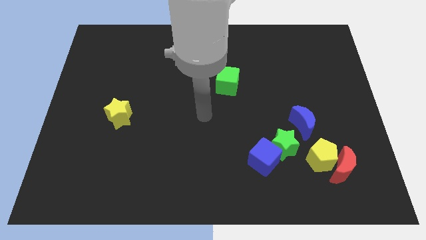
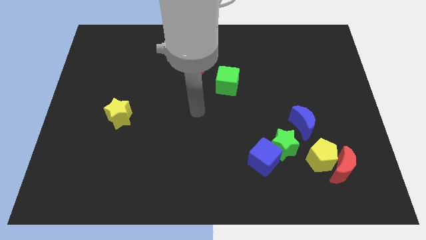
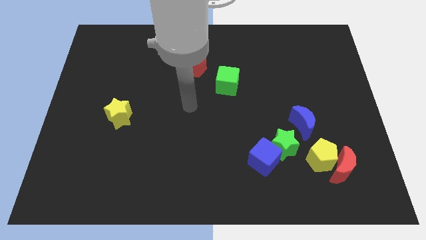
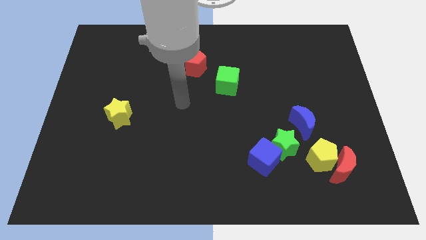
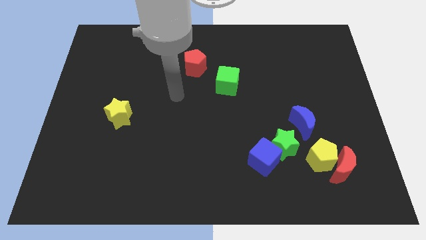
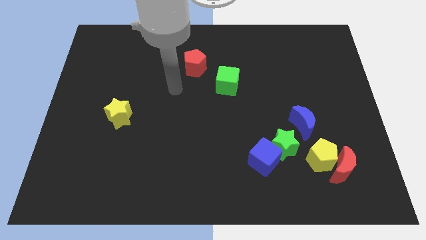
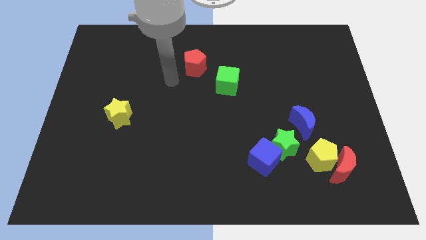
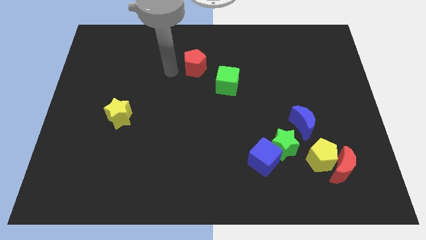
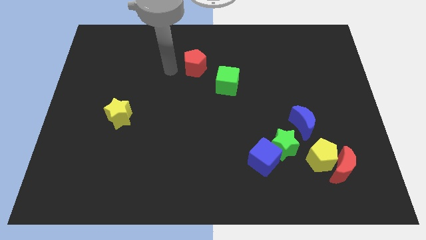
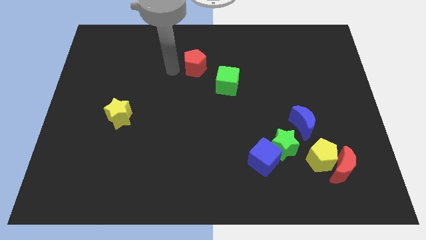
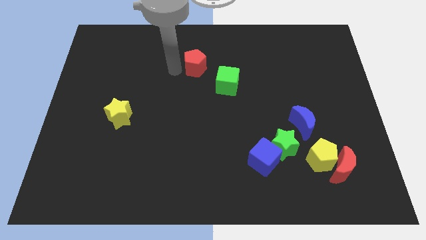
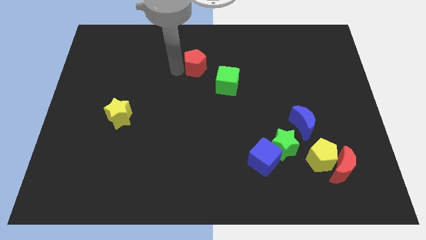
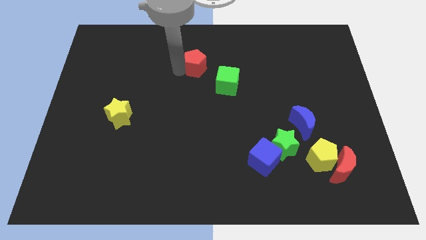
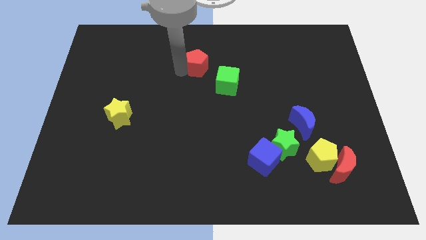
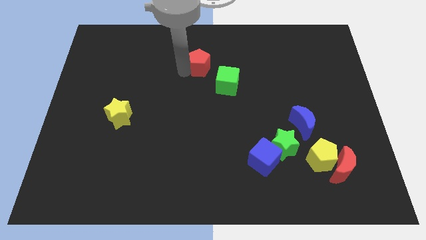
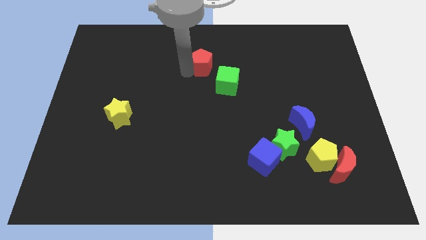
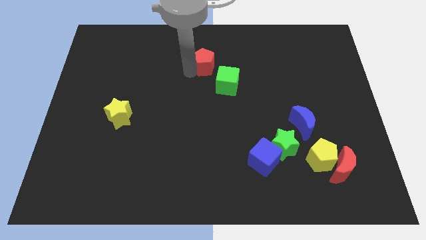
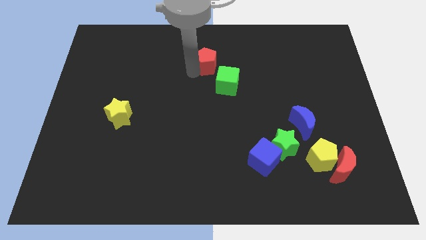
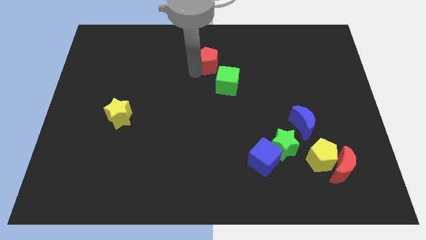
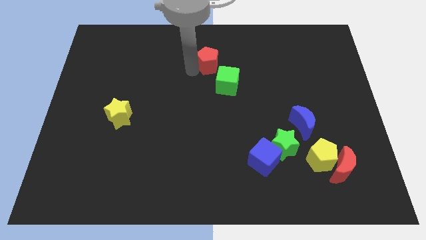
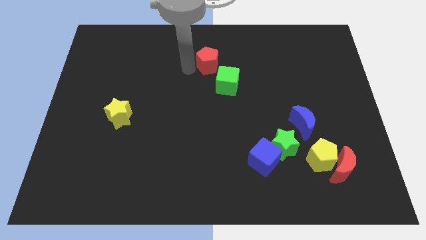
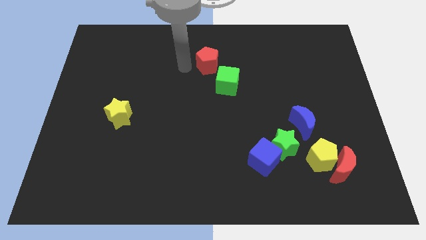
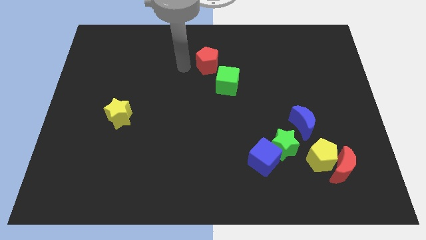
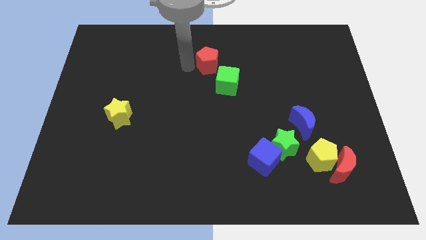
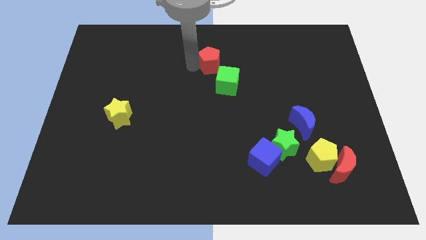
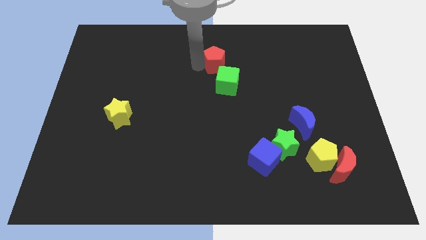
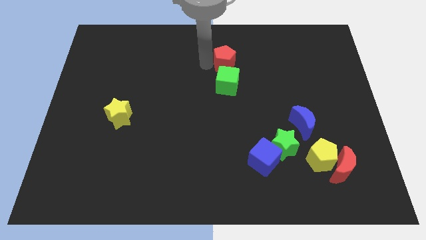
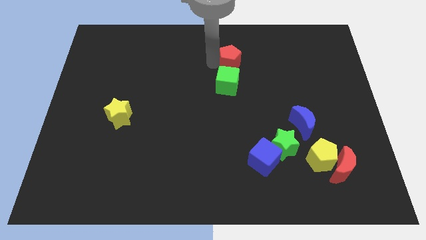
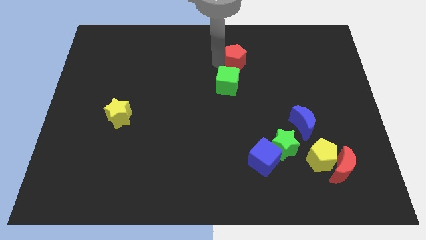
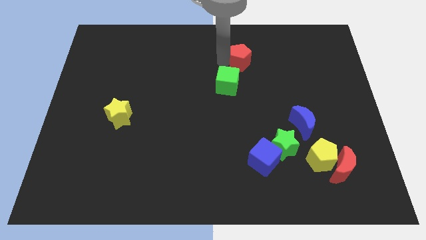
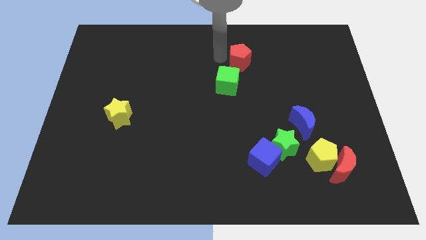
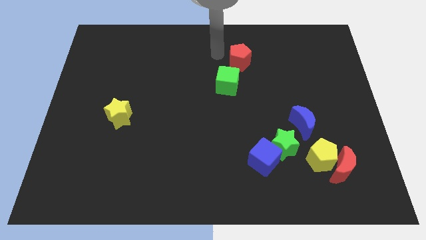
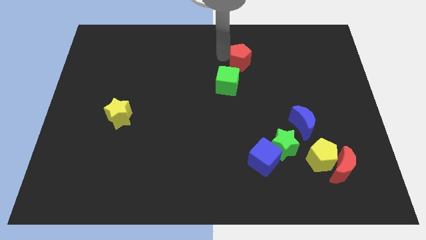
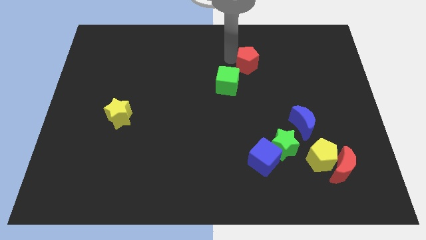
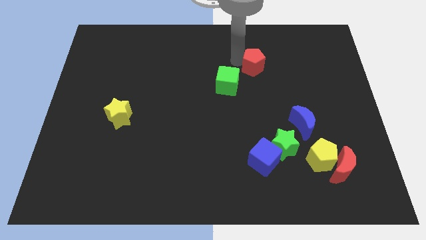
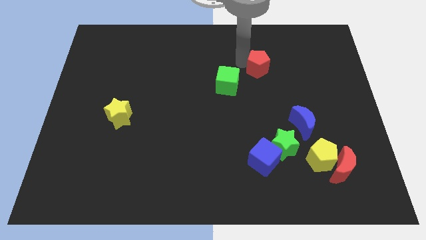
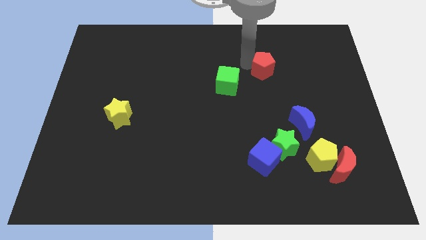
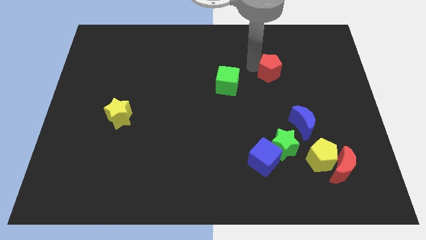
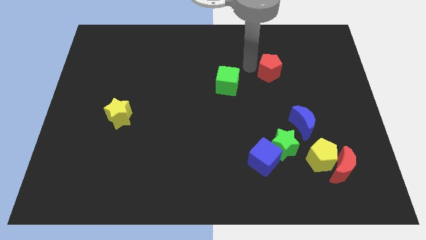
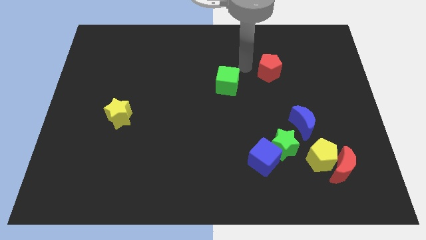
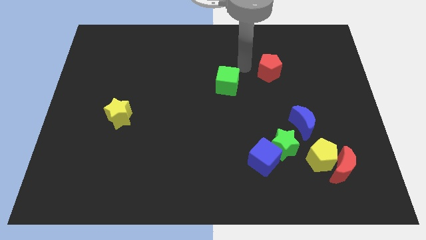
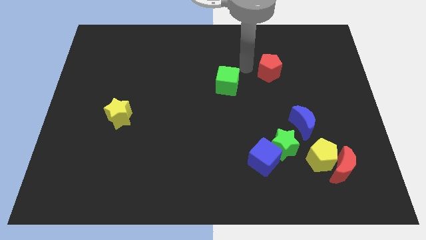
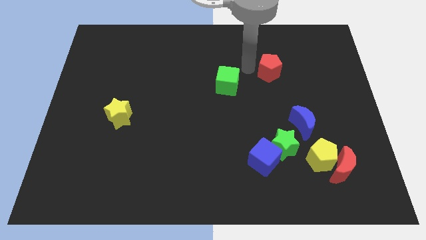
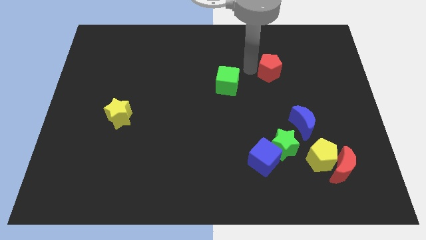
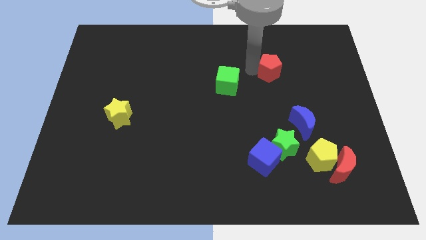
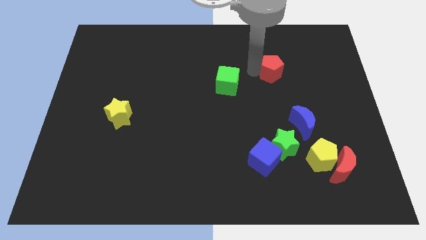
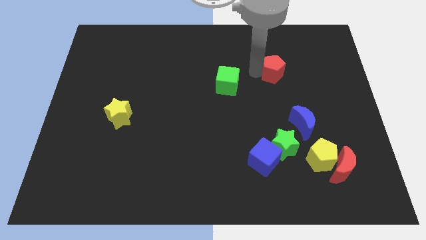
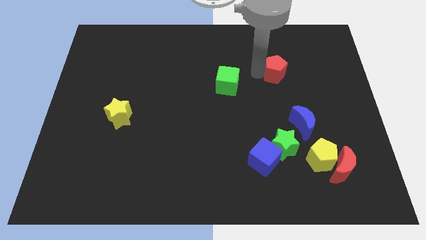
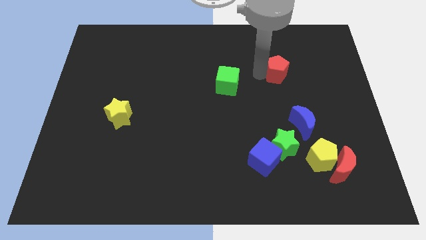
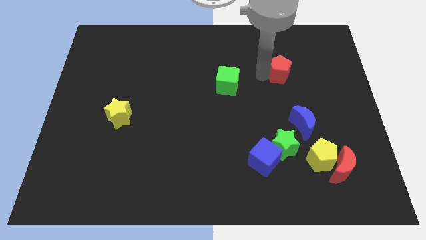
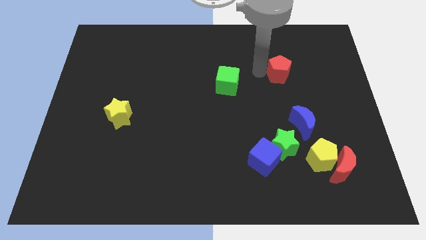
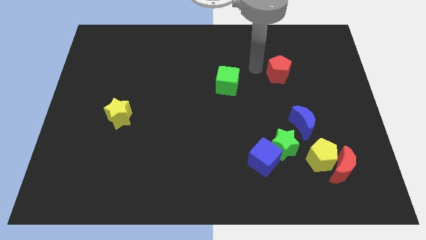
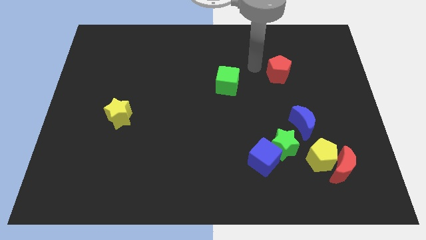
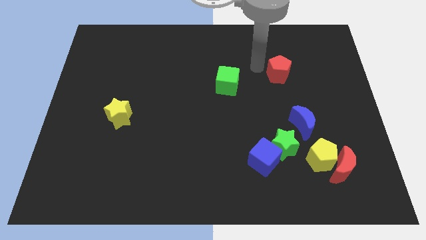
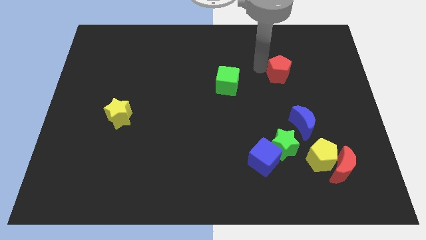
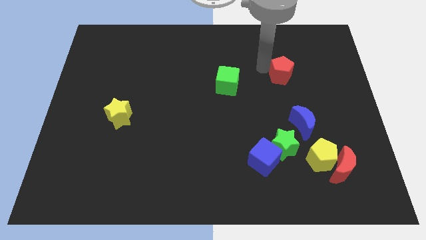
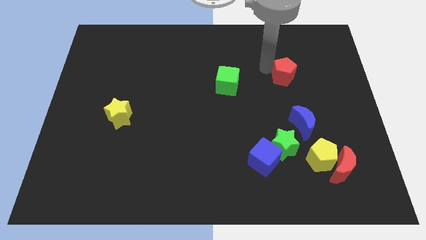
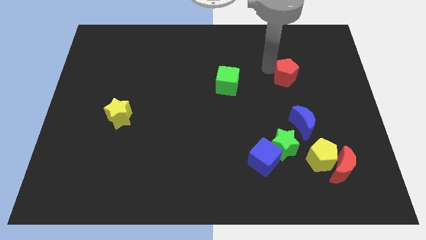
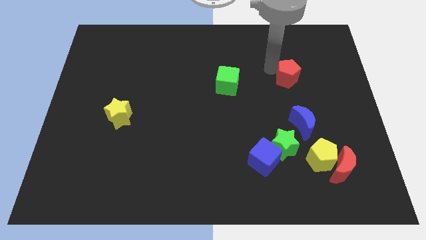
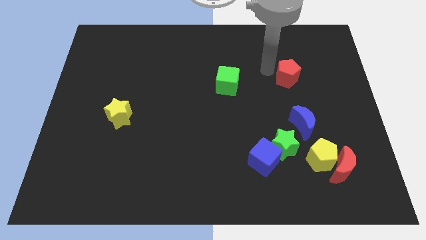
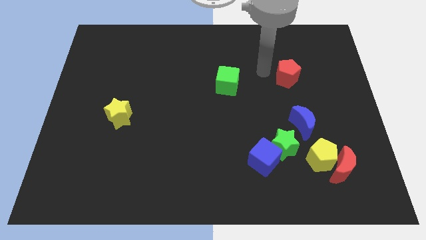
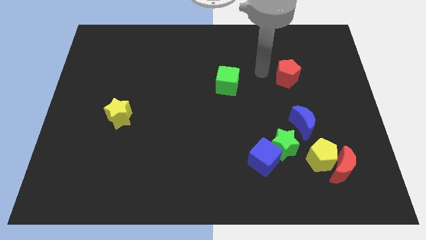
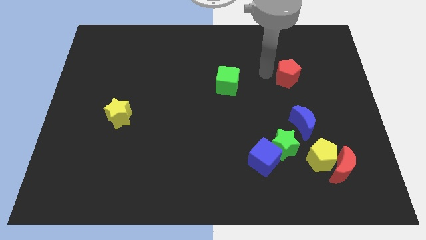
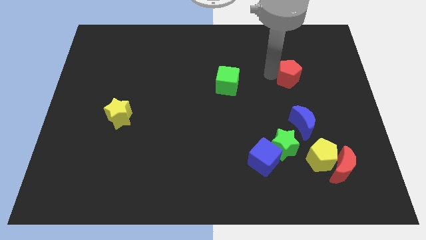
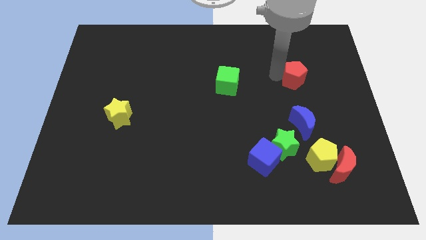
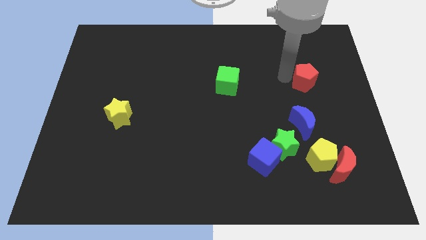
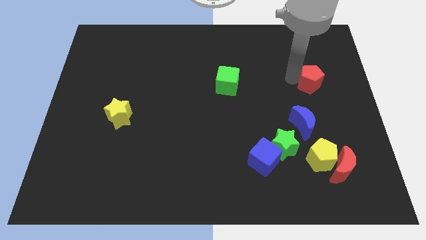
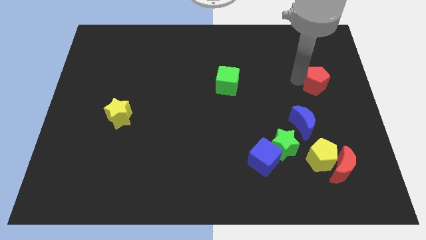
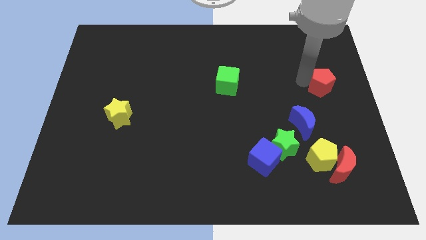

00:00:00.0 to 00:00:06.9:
move the red pentagon to the right side of the board
